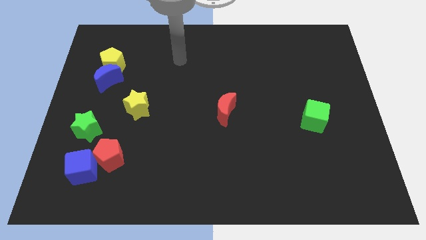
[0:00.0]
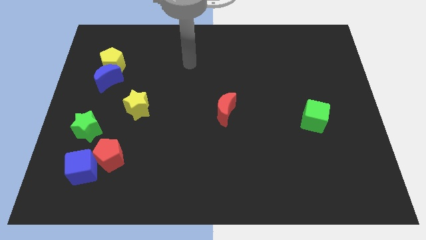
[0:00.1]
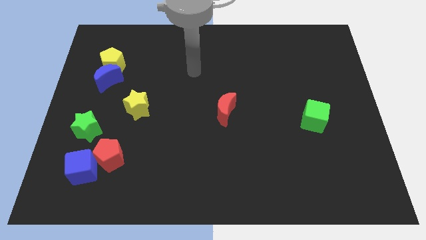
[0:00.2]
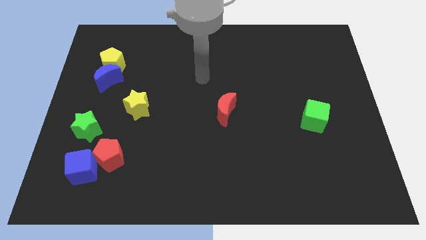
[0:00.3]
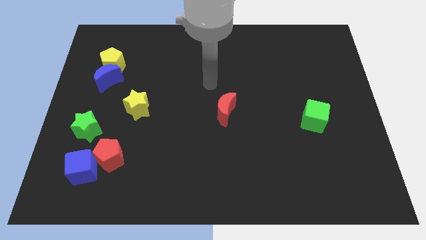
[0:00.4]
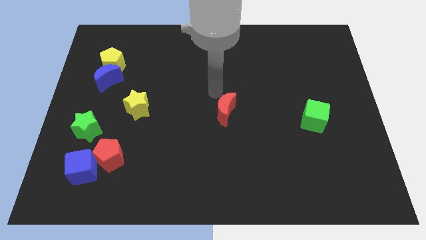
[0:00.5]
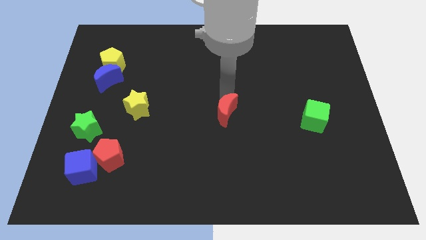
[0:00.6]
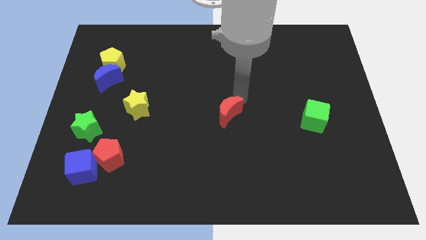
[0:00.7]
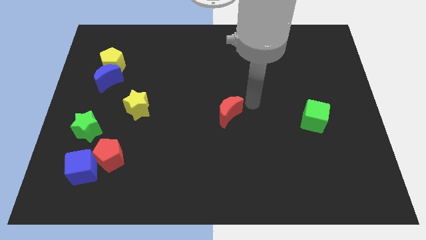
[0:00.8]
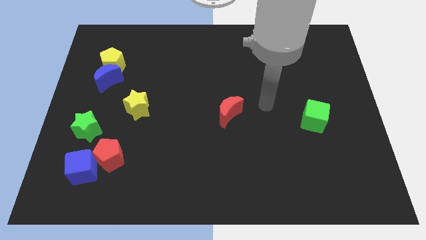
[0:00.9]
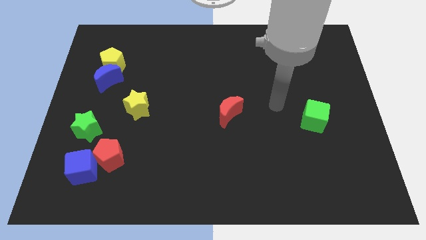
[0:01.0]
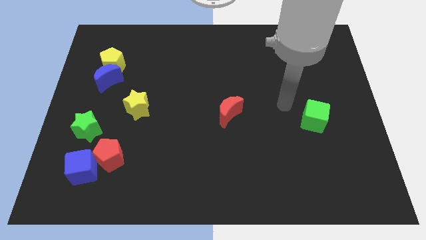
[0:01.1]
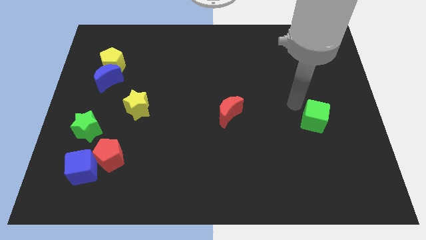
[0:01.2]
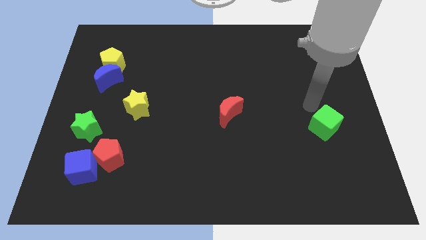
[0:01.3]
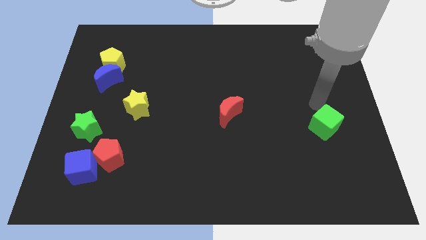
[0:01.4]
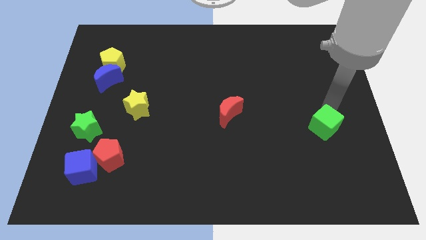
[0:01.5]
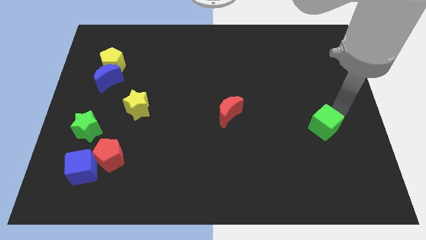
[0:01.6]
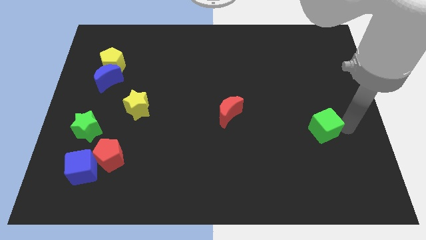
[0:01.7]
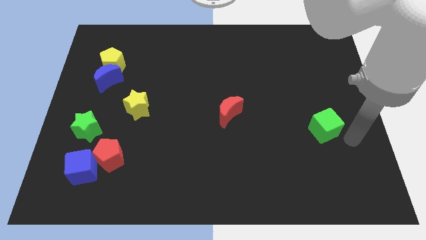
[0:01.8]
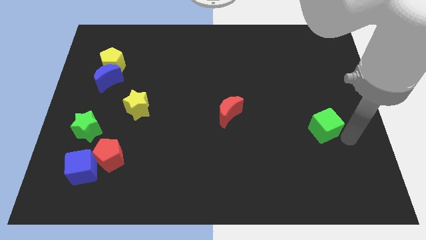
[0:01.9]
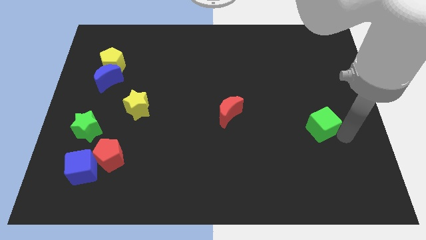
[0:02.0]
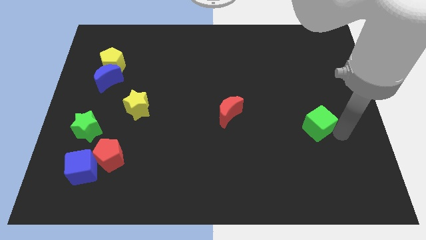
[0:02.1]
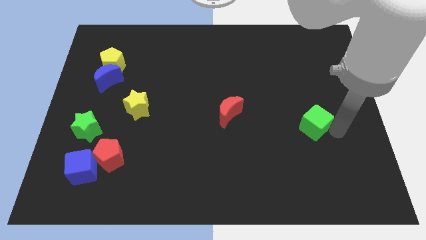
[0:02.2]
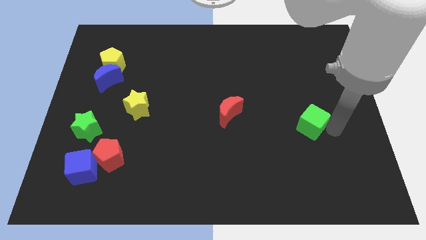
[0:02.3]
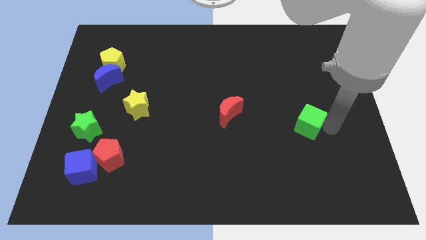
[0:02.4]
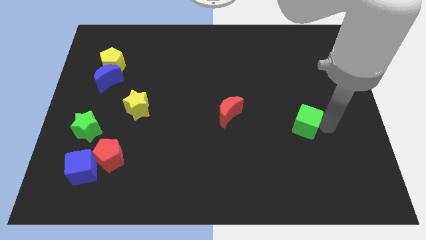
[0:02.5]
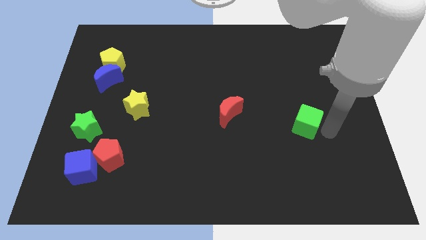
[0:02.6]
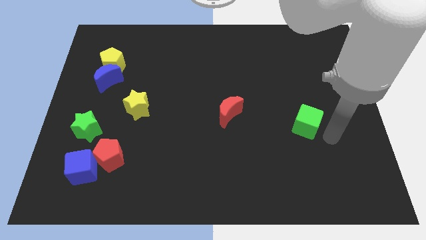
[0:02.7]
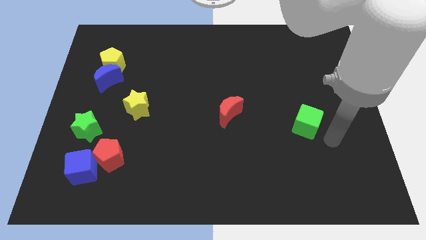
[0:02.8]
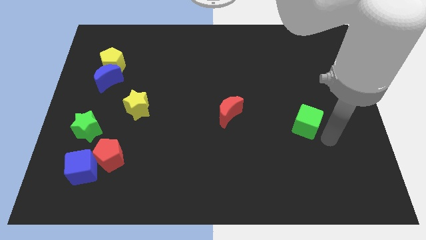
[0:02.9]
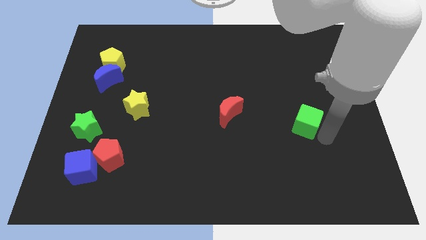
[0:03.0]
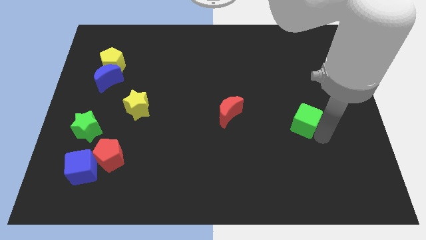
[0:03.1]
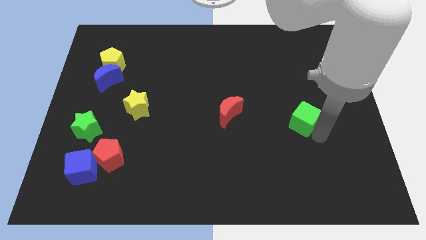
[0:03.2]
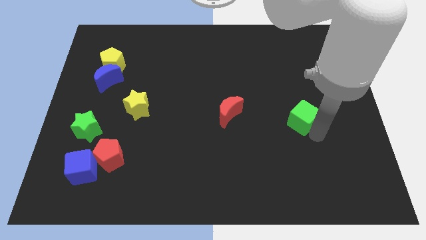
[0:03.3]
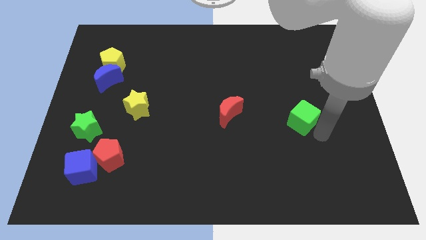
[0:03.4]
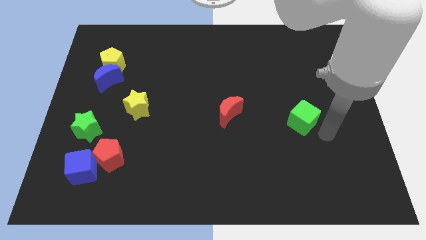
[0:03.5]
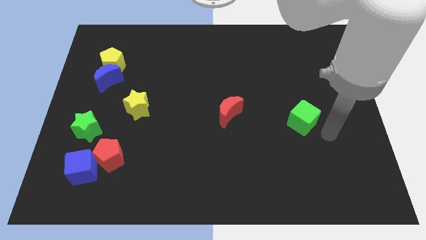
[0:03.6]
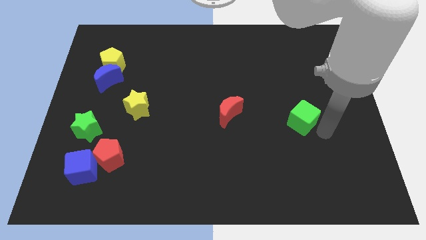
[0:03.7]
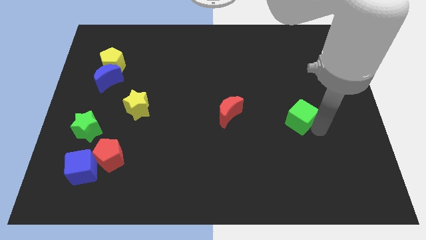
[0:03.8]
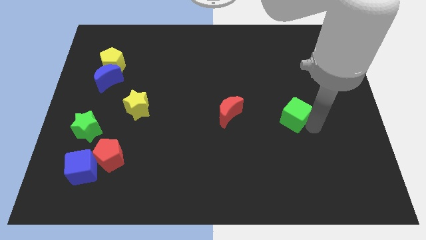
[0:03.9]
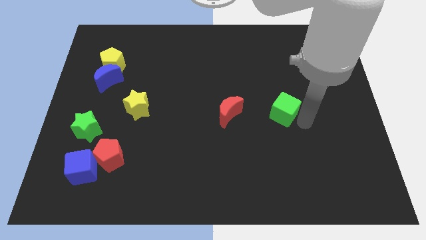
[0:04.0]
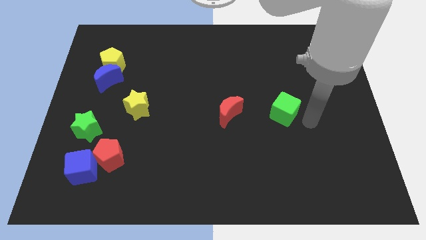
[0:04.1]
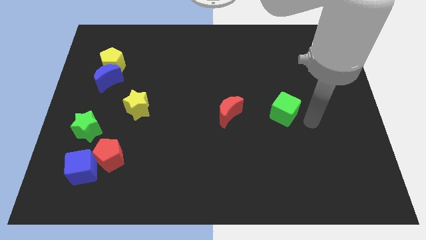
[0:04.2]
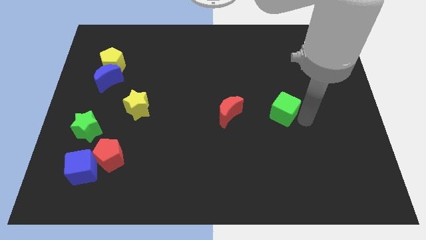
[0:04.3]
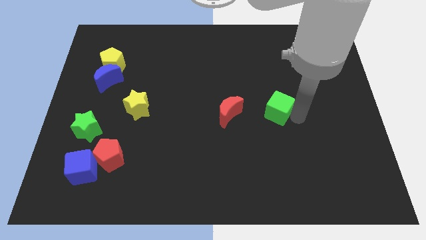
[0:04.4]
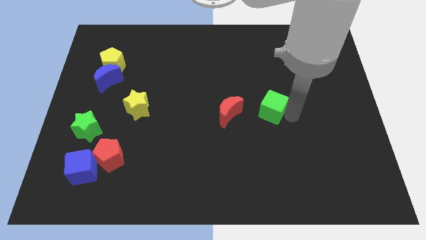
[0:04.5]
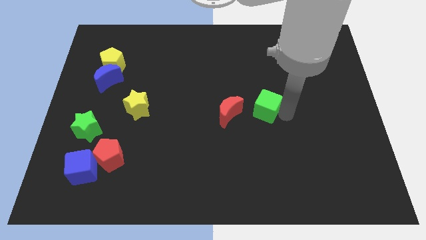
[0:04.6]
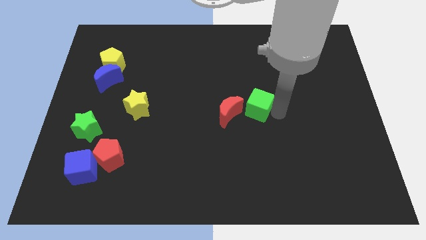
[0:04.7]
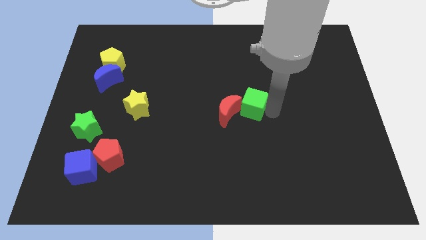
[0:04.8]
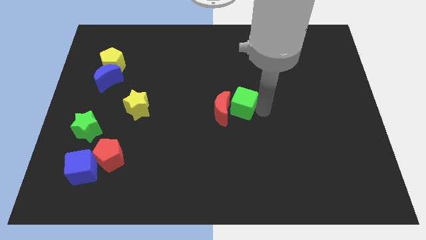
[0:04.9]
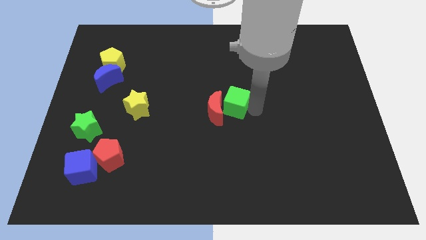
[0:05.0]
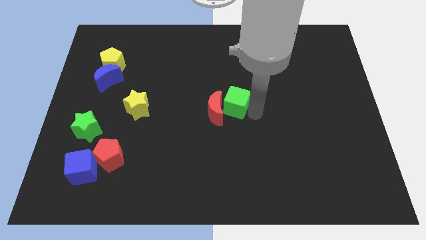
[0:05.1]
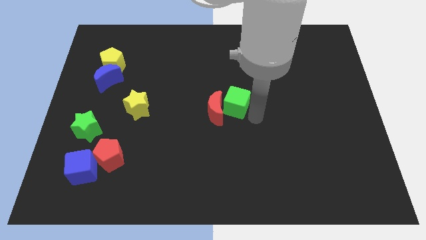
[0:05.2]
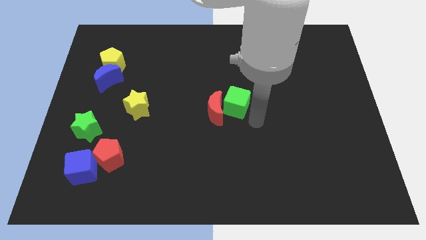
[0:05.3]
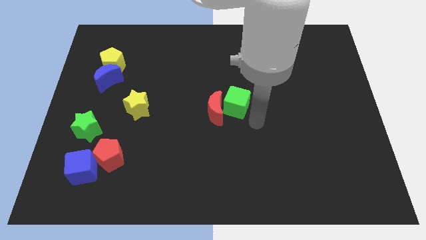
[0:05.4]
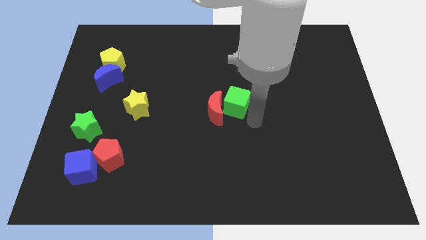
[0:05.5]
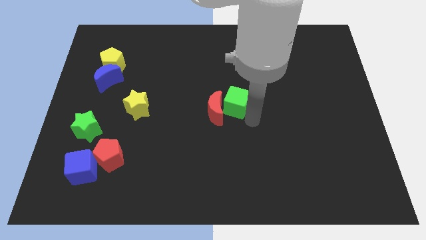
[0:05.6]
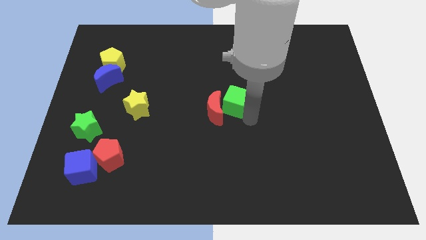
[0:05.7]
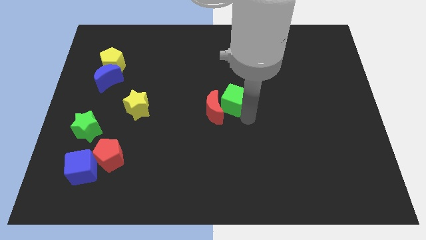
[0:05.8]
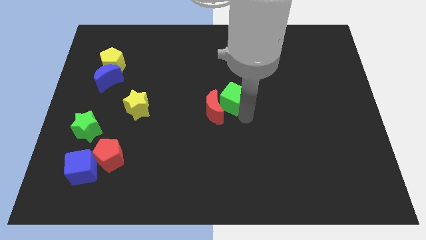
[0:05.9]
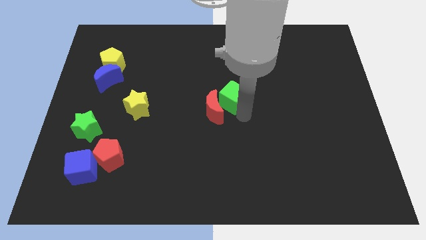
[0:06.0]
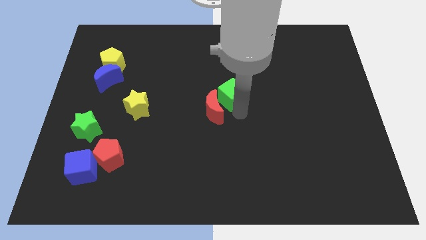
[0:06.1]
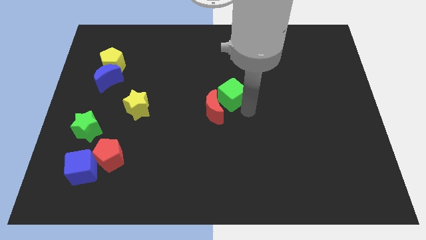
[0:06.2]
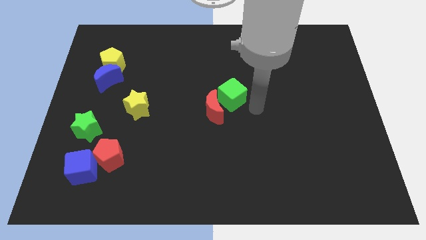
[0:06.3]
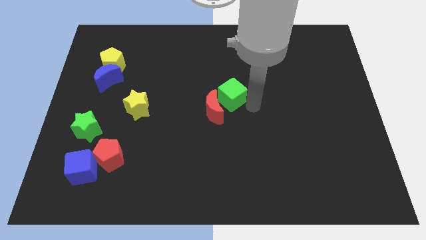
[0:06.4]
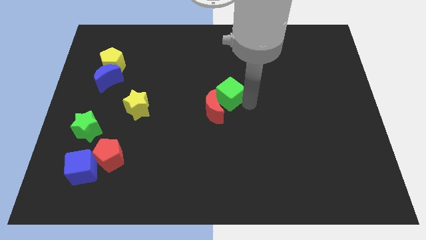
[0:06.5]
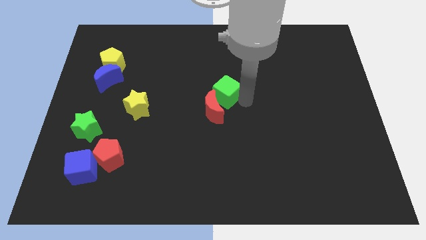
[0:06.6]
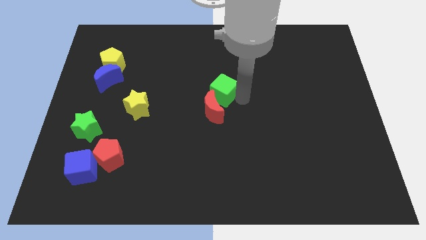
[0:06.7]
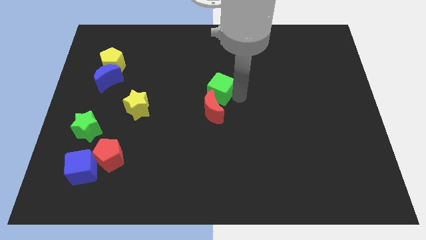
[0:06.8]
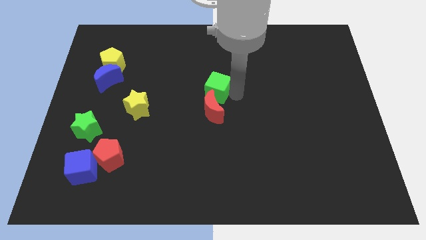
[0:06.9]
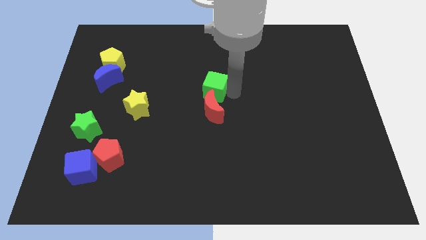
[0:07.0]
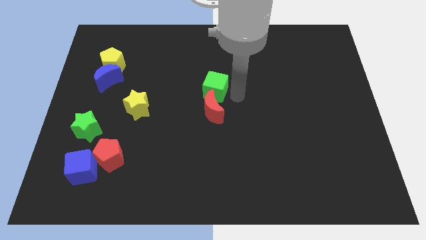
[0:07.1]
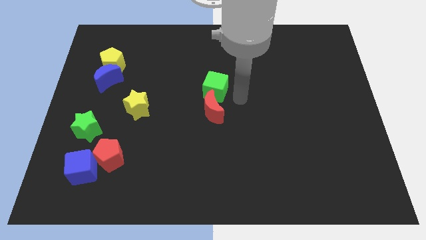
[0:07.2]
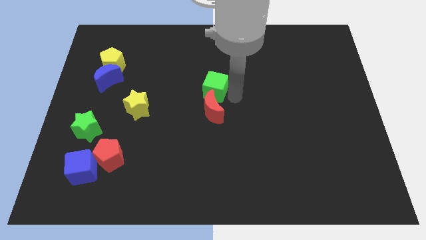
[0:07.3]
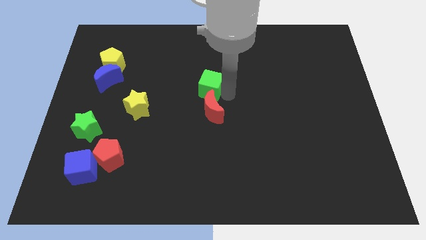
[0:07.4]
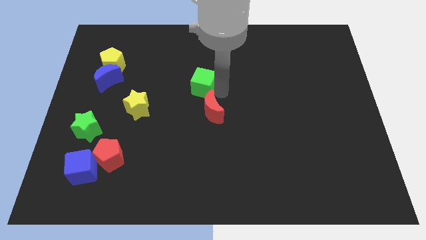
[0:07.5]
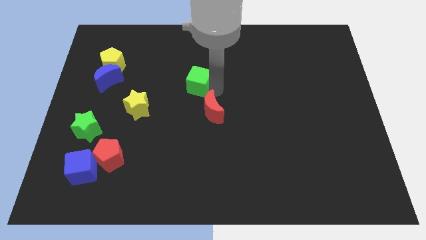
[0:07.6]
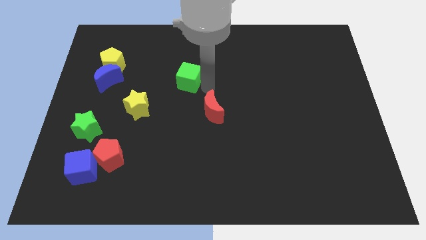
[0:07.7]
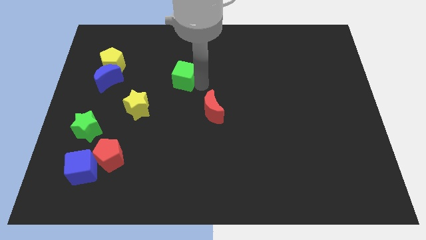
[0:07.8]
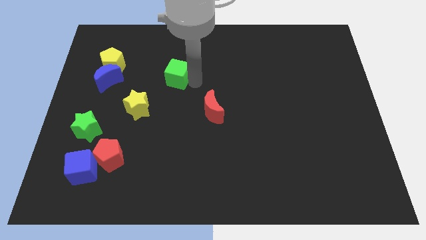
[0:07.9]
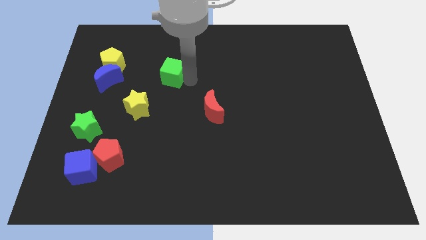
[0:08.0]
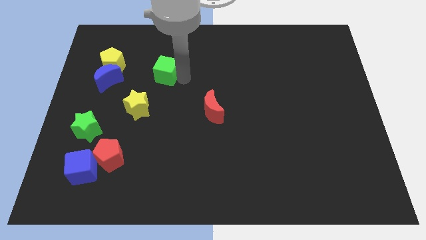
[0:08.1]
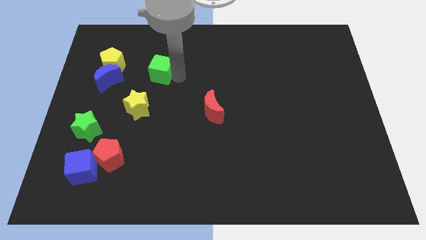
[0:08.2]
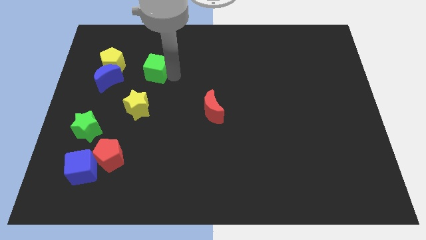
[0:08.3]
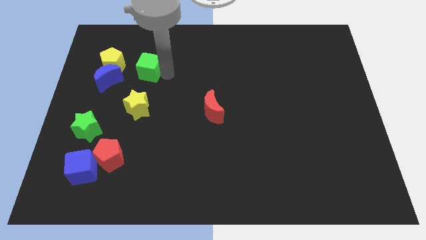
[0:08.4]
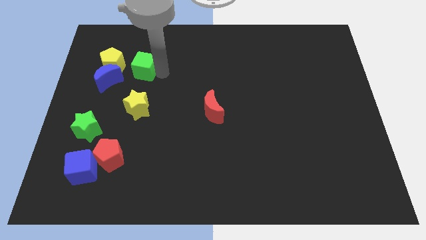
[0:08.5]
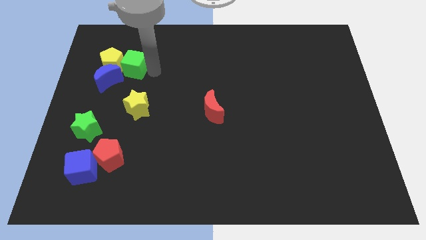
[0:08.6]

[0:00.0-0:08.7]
push the green cube towards the yellow pentagon
